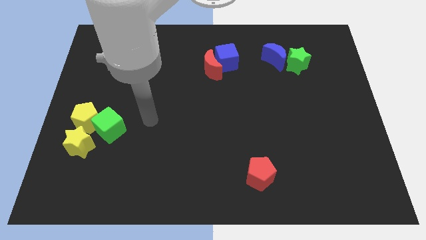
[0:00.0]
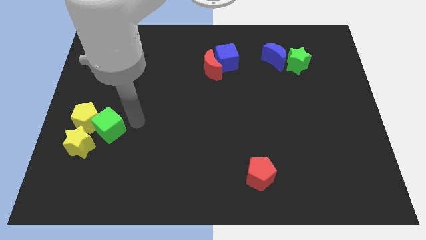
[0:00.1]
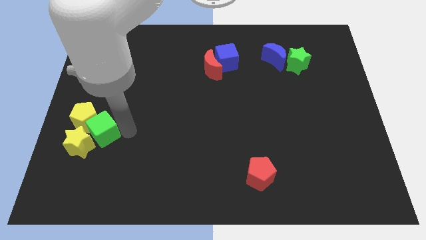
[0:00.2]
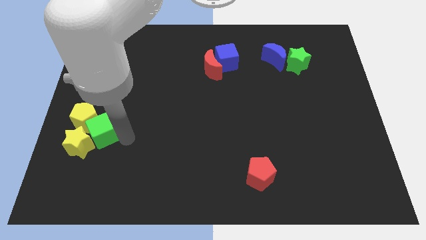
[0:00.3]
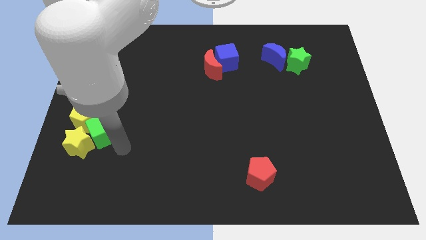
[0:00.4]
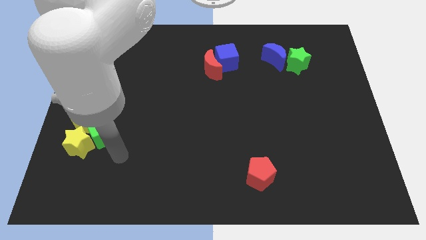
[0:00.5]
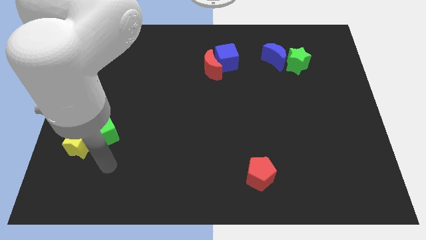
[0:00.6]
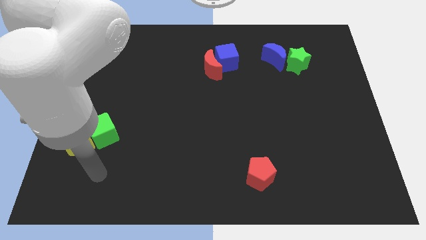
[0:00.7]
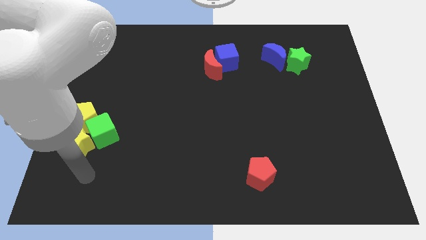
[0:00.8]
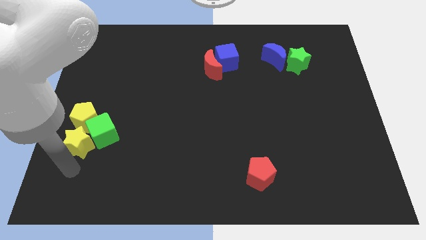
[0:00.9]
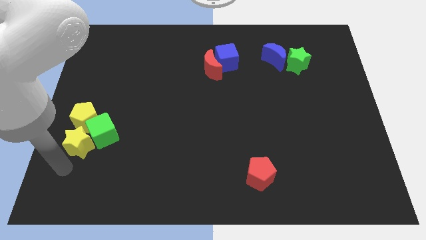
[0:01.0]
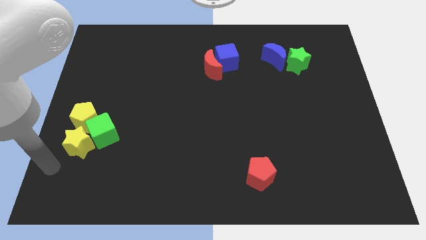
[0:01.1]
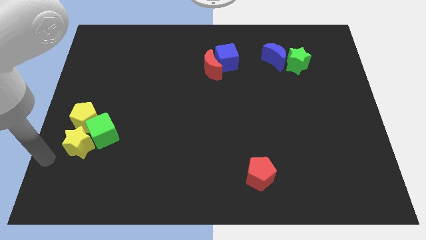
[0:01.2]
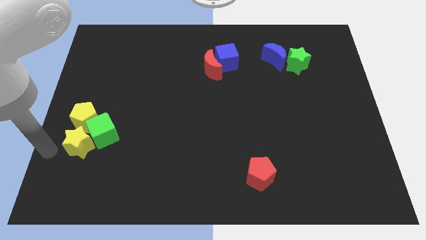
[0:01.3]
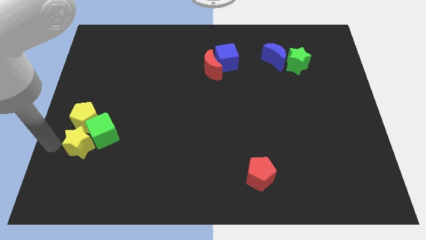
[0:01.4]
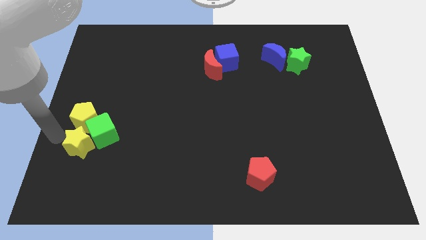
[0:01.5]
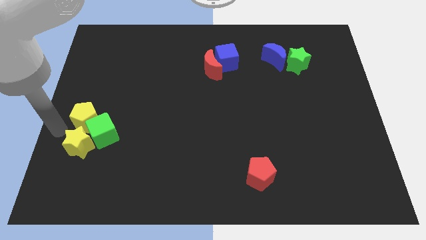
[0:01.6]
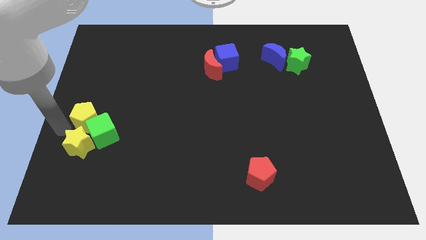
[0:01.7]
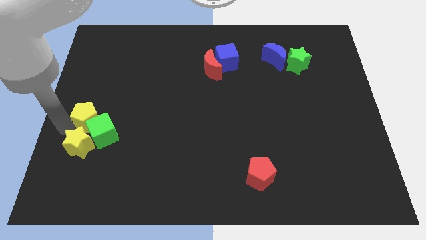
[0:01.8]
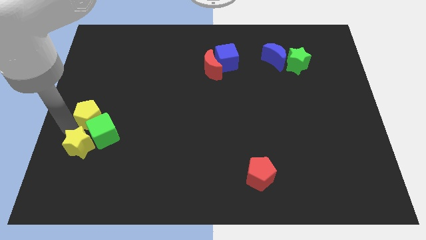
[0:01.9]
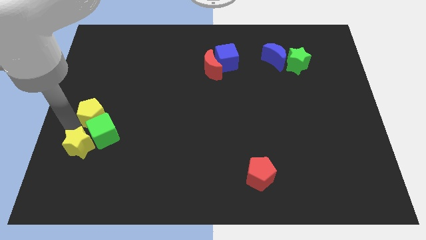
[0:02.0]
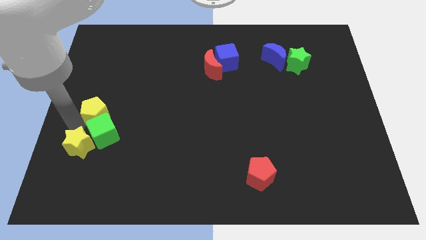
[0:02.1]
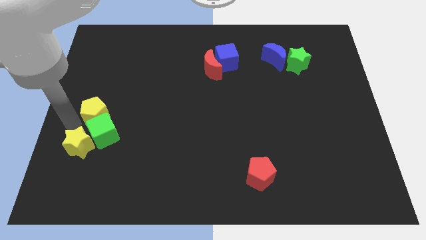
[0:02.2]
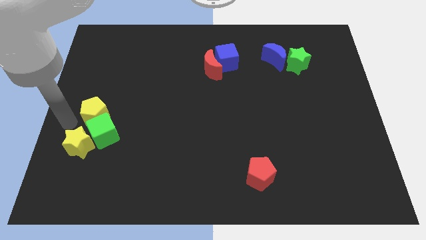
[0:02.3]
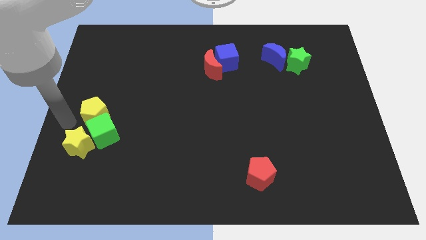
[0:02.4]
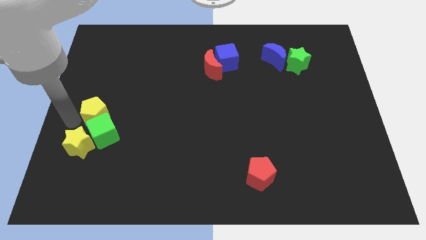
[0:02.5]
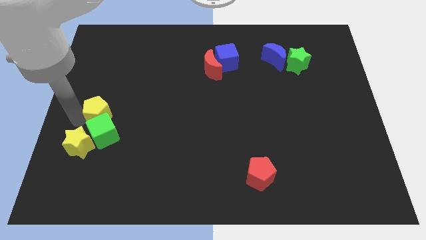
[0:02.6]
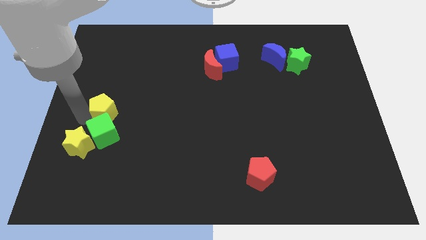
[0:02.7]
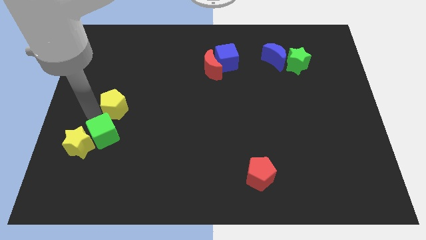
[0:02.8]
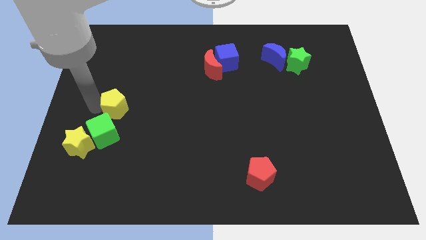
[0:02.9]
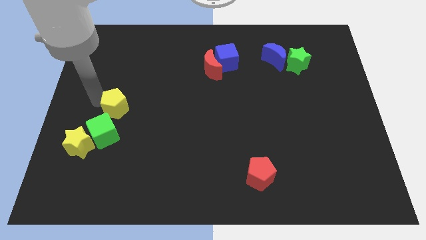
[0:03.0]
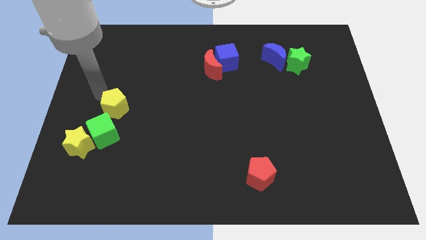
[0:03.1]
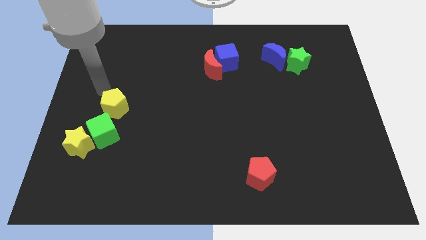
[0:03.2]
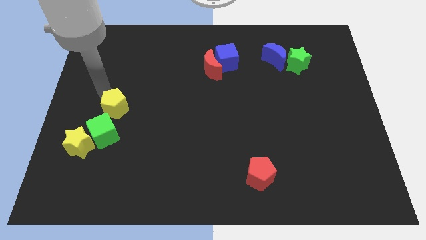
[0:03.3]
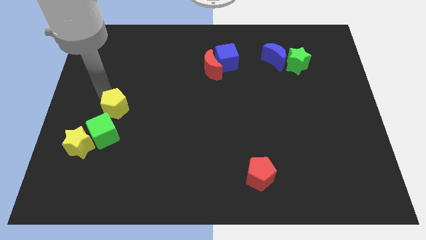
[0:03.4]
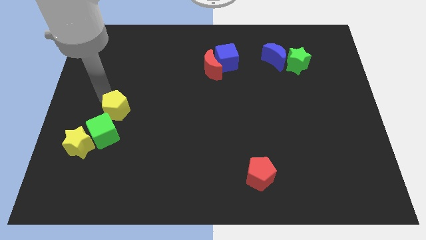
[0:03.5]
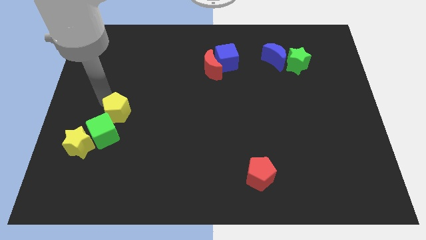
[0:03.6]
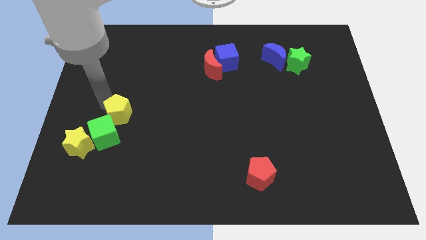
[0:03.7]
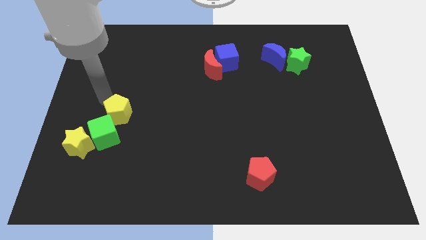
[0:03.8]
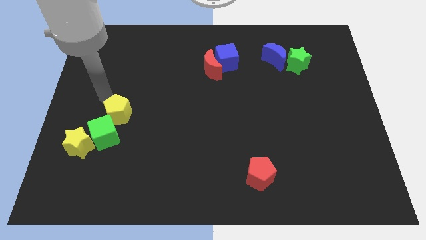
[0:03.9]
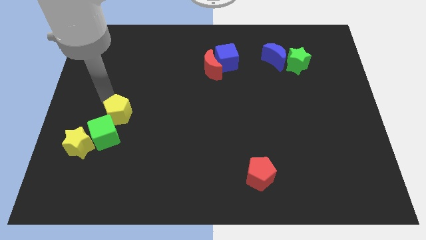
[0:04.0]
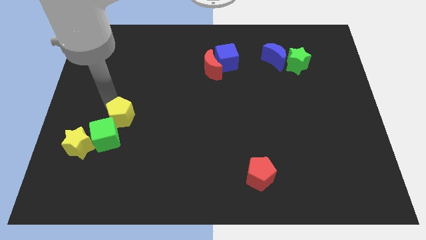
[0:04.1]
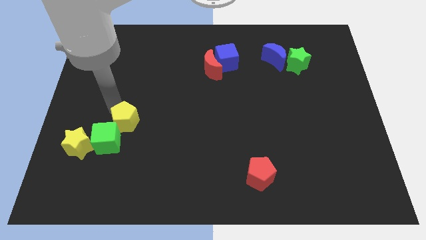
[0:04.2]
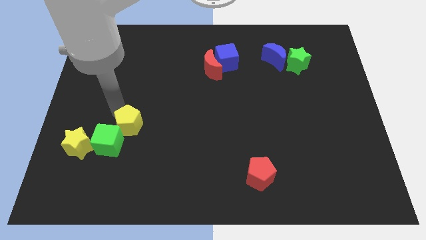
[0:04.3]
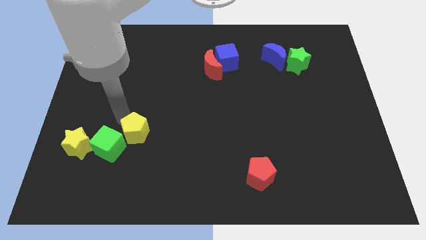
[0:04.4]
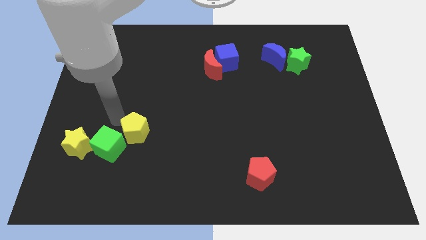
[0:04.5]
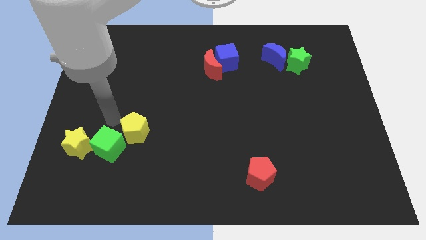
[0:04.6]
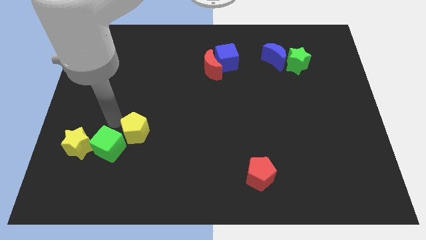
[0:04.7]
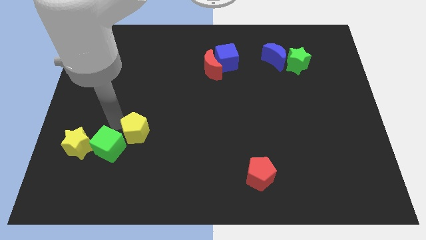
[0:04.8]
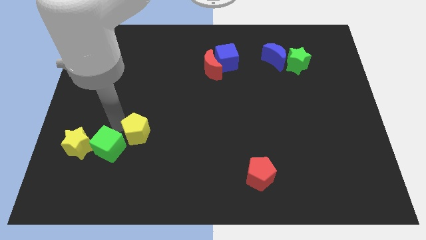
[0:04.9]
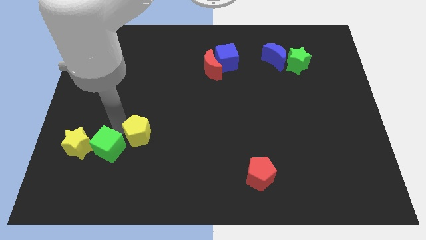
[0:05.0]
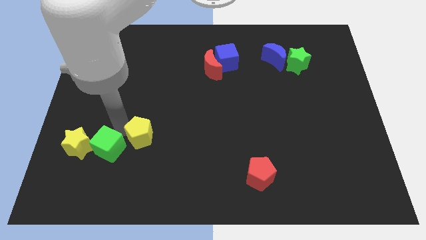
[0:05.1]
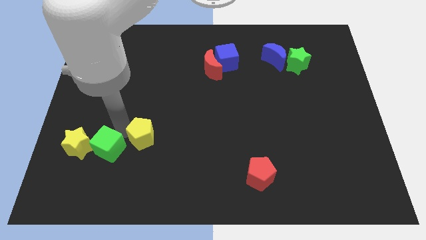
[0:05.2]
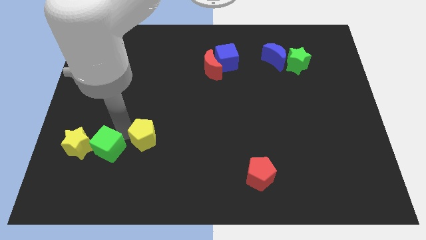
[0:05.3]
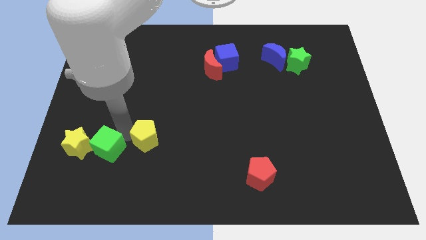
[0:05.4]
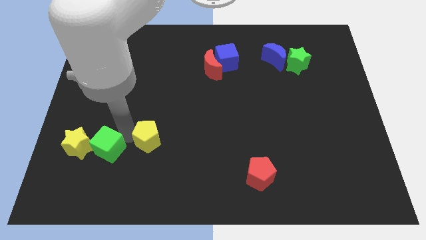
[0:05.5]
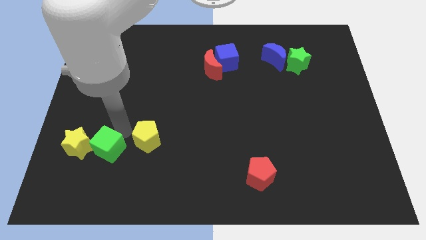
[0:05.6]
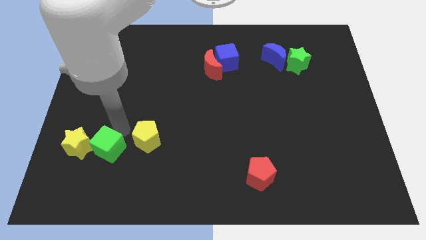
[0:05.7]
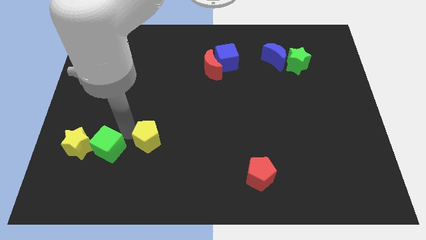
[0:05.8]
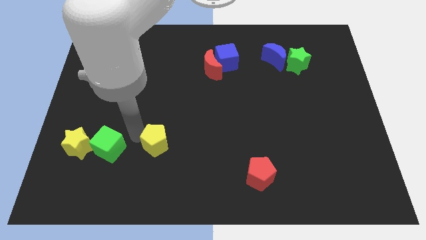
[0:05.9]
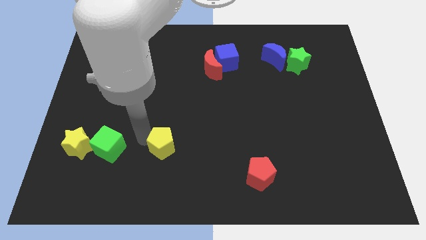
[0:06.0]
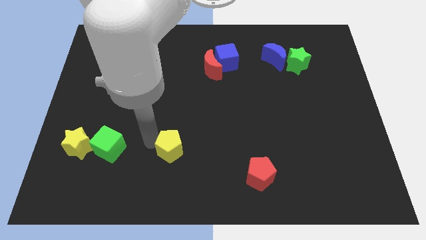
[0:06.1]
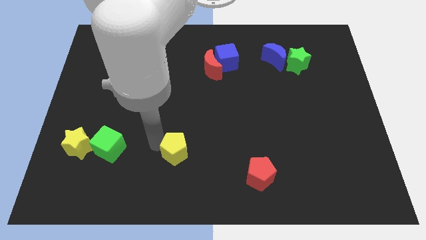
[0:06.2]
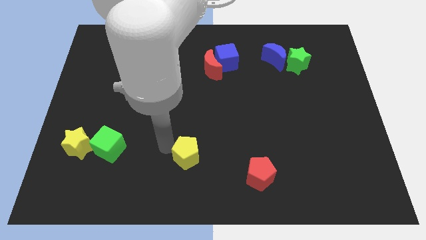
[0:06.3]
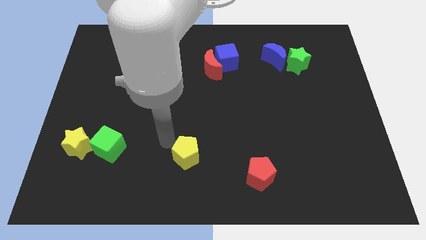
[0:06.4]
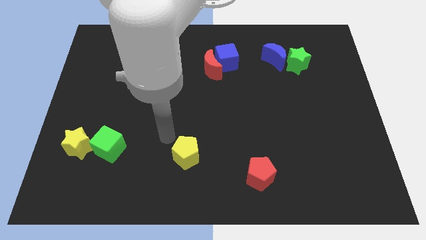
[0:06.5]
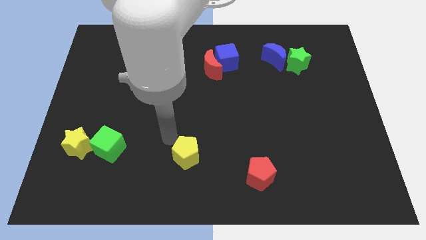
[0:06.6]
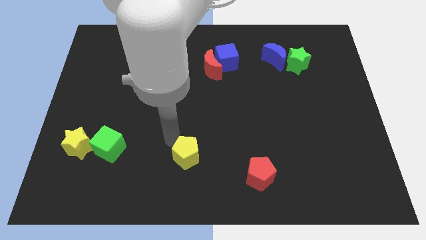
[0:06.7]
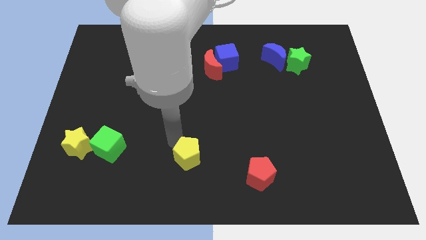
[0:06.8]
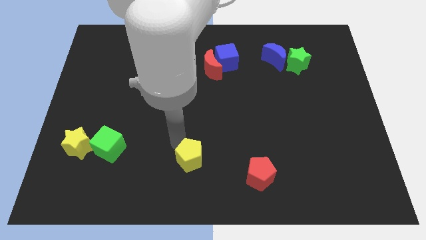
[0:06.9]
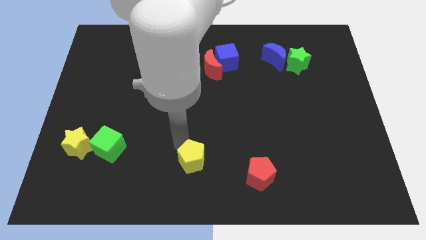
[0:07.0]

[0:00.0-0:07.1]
move the yellow pentagon just left of the red pentagon

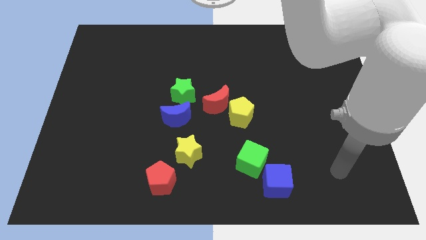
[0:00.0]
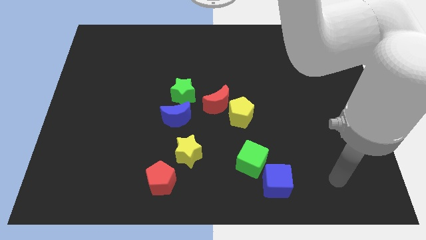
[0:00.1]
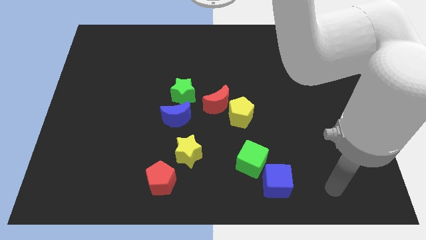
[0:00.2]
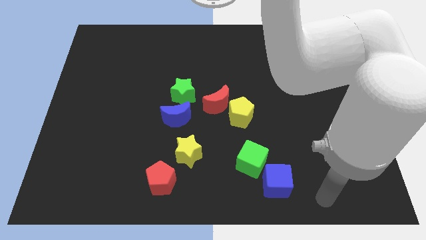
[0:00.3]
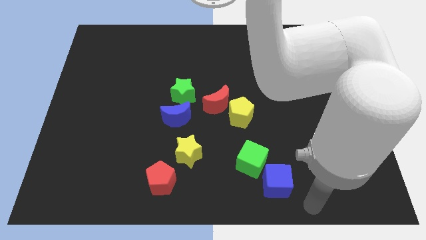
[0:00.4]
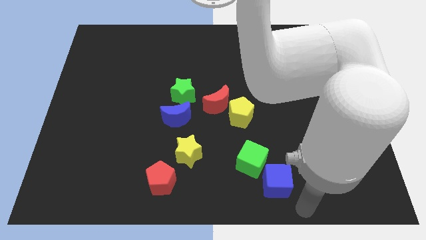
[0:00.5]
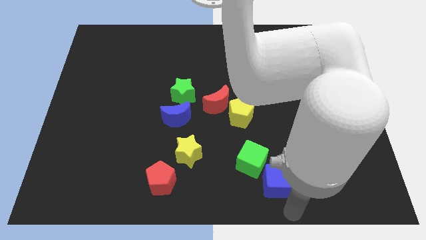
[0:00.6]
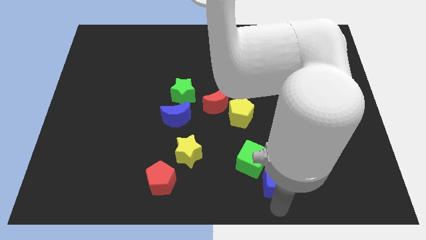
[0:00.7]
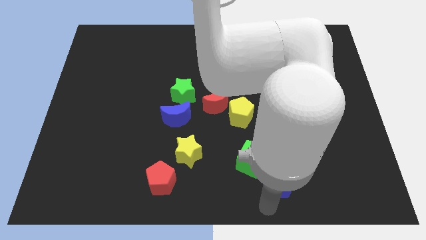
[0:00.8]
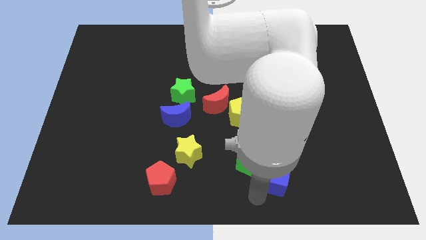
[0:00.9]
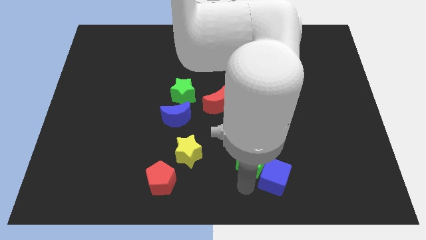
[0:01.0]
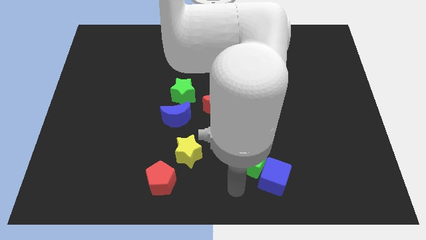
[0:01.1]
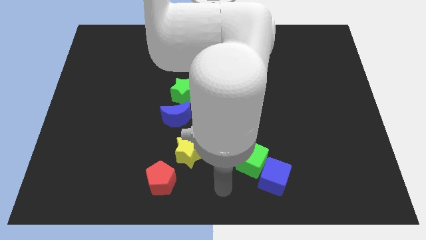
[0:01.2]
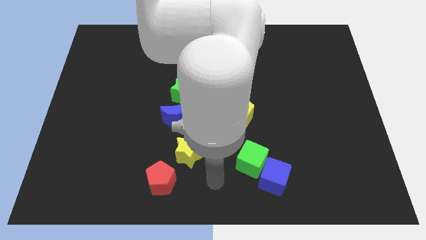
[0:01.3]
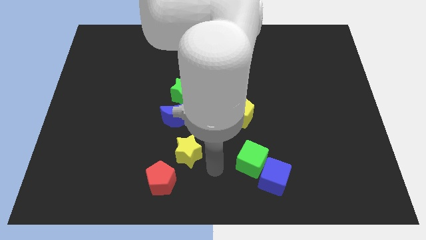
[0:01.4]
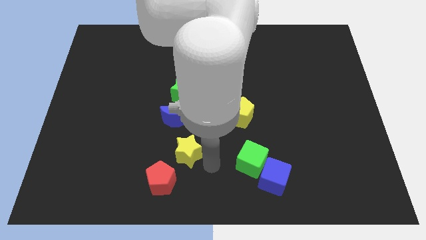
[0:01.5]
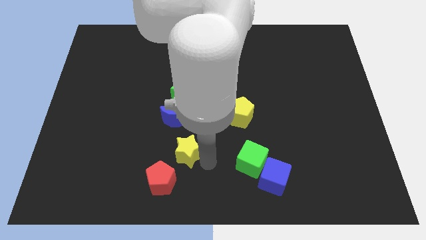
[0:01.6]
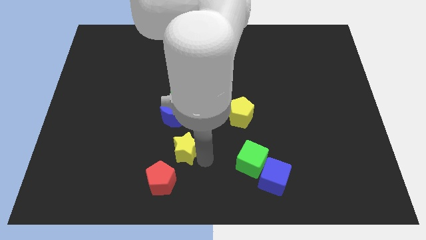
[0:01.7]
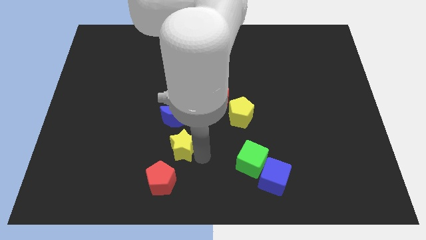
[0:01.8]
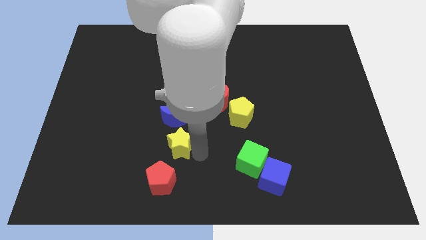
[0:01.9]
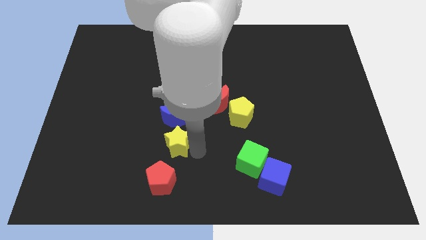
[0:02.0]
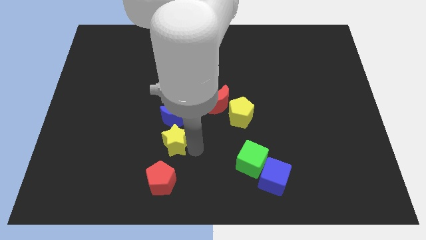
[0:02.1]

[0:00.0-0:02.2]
move the yellow star to the bottom left side of the blue moon
